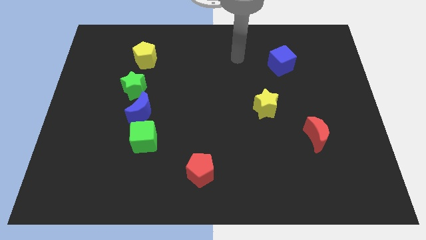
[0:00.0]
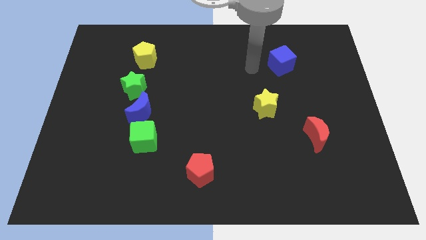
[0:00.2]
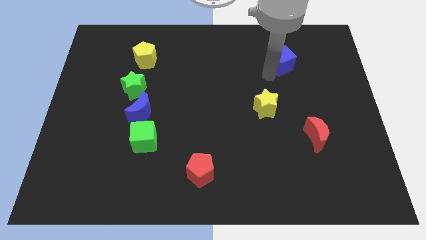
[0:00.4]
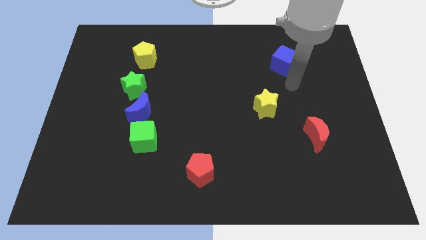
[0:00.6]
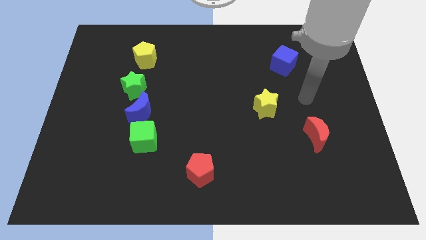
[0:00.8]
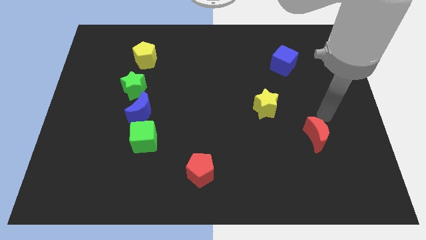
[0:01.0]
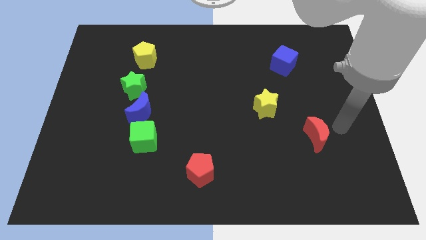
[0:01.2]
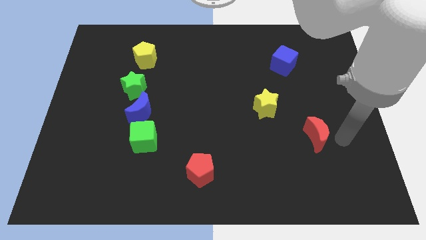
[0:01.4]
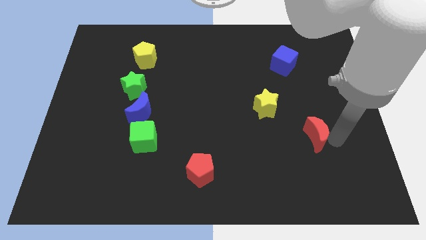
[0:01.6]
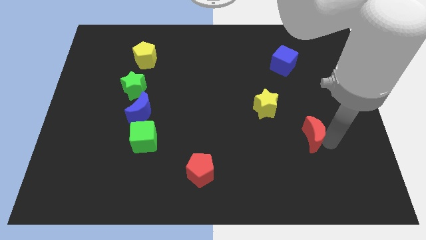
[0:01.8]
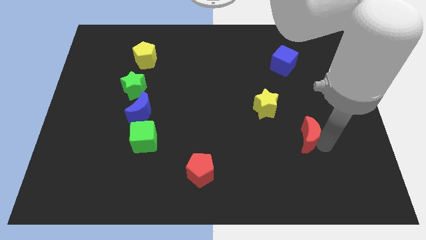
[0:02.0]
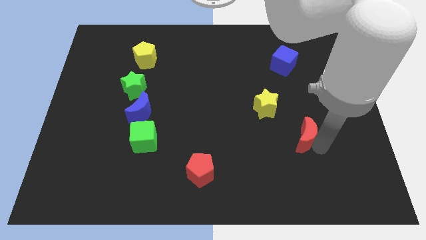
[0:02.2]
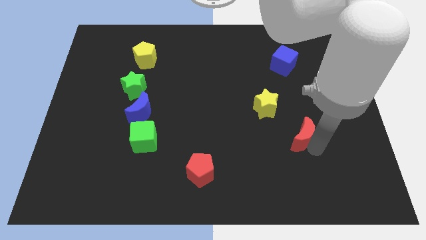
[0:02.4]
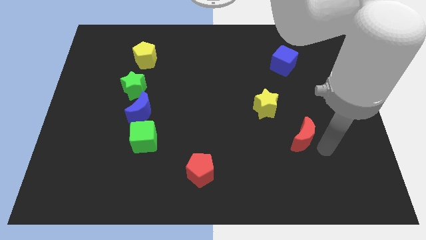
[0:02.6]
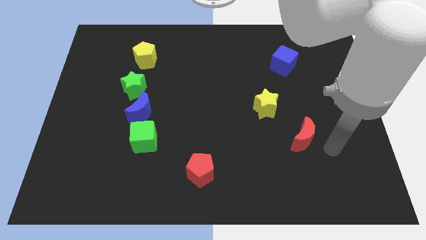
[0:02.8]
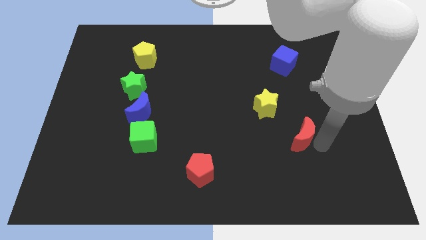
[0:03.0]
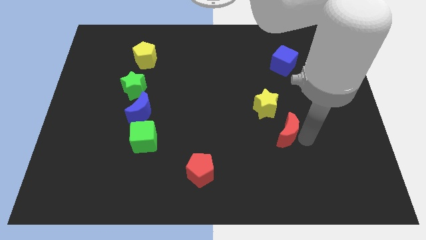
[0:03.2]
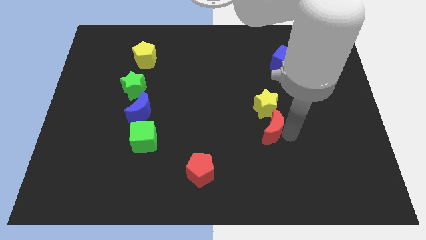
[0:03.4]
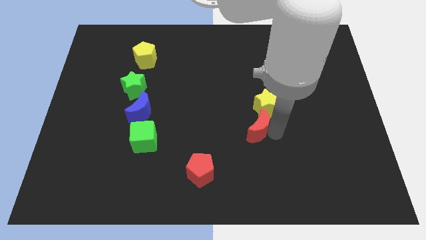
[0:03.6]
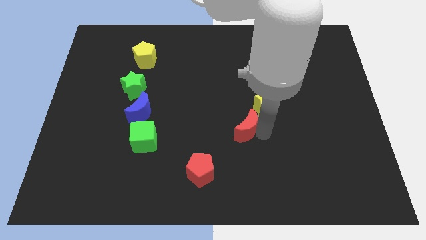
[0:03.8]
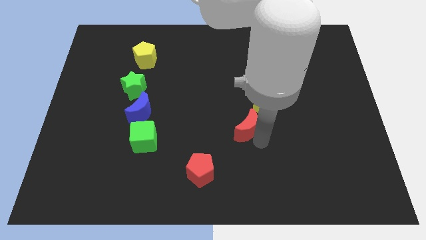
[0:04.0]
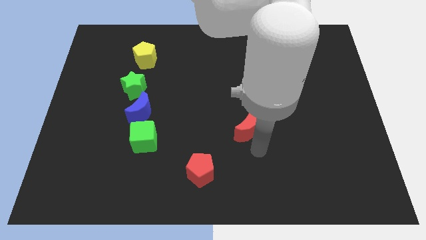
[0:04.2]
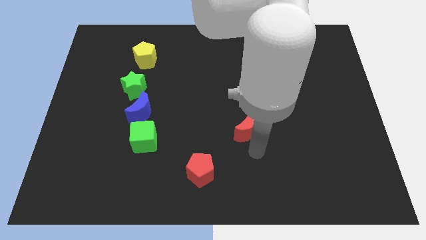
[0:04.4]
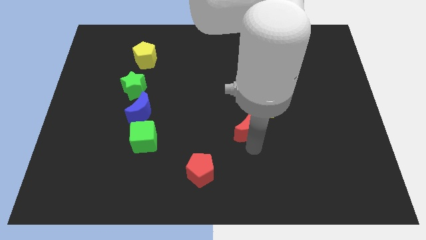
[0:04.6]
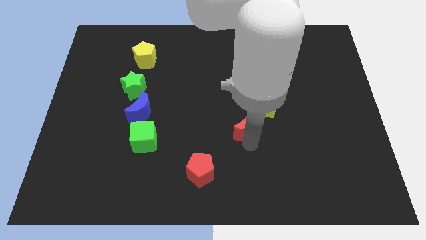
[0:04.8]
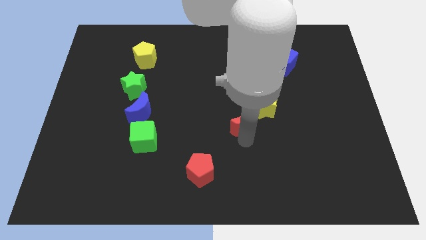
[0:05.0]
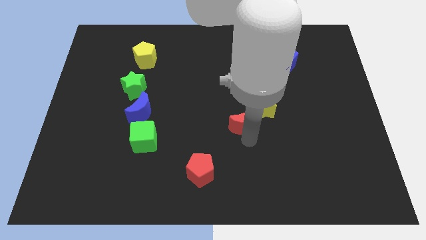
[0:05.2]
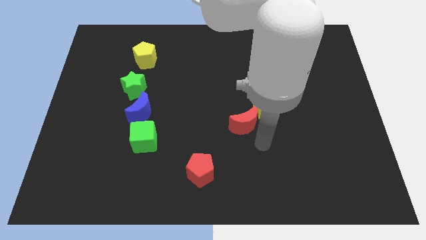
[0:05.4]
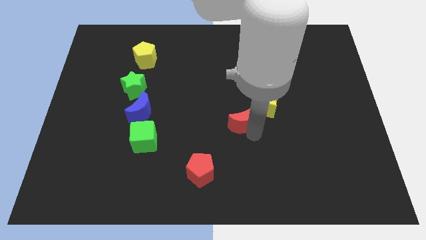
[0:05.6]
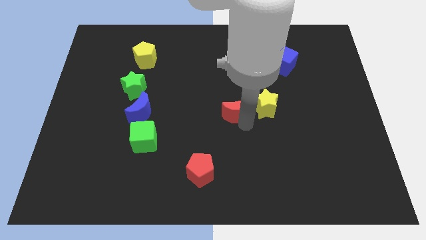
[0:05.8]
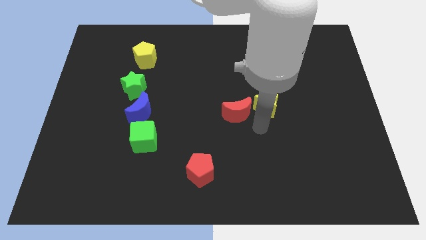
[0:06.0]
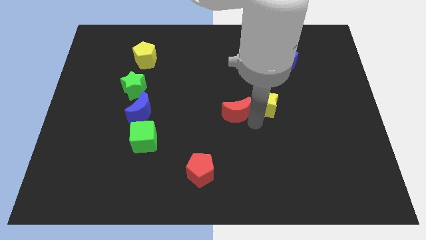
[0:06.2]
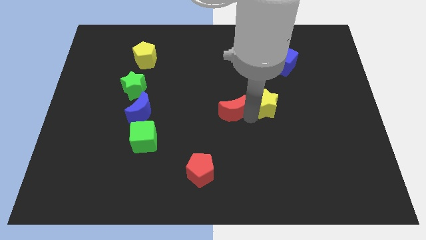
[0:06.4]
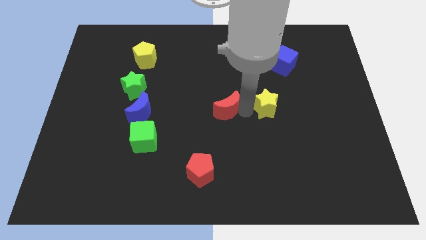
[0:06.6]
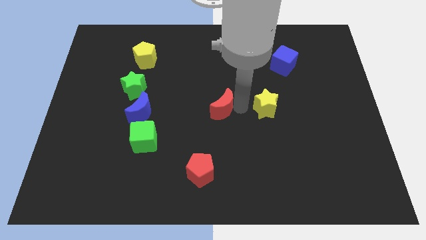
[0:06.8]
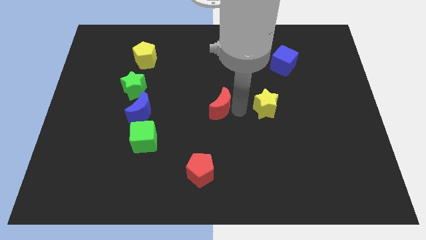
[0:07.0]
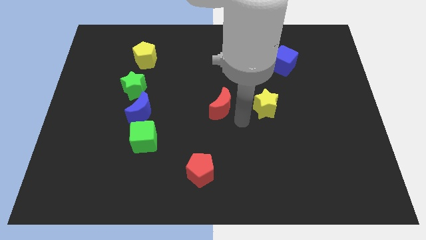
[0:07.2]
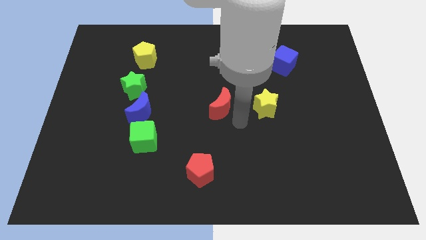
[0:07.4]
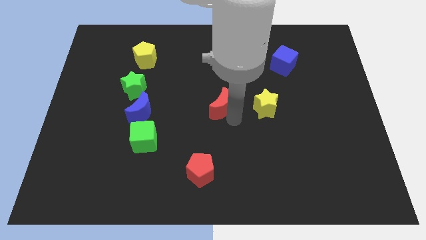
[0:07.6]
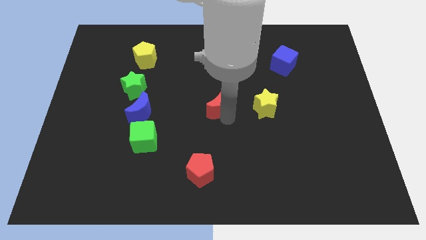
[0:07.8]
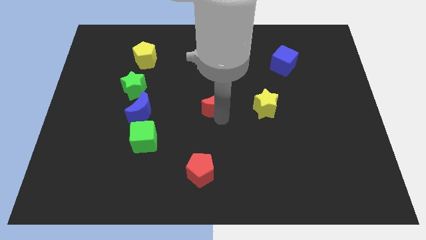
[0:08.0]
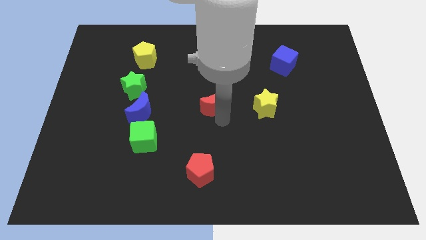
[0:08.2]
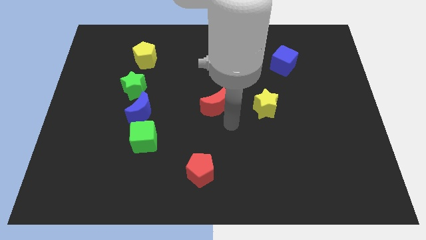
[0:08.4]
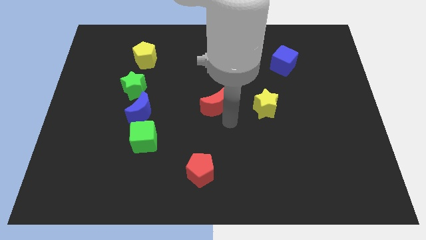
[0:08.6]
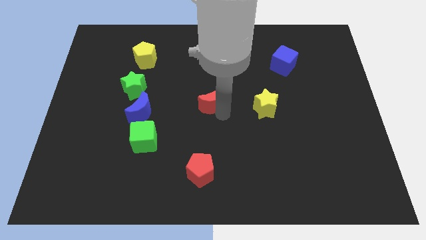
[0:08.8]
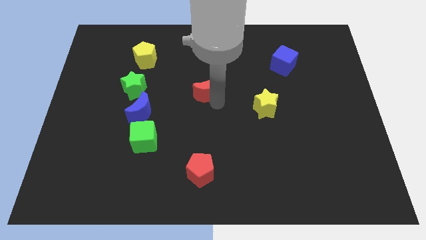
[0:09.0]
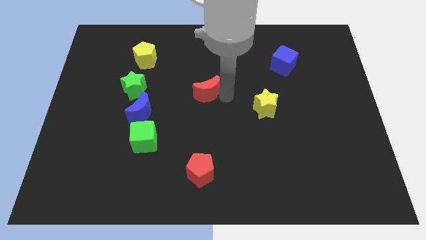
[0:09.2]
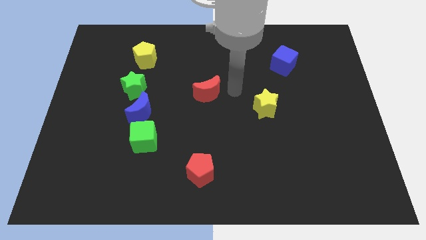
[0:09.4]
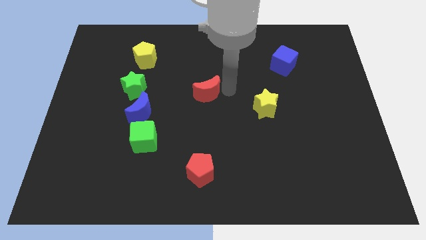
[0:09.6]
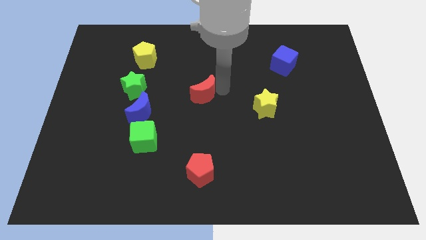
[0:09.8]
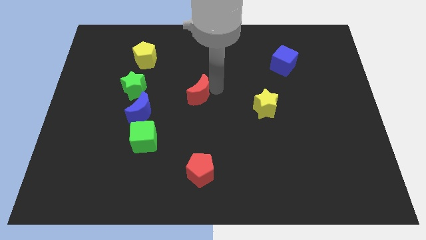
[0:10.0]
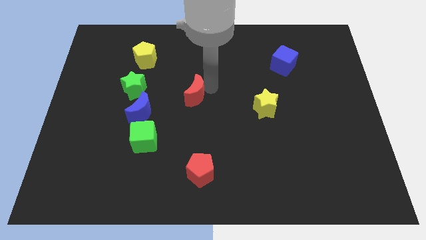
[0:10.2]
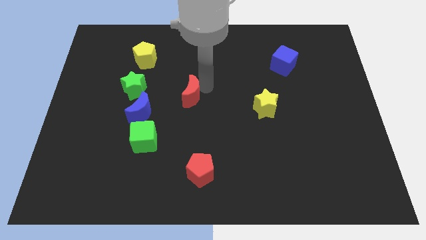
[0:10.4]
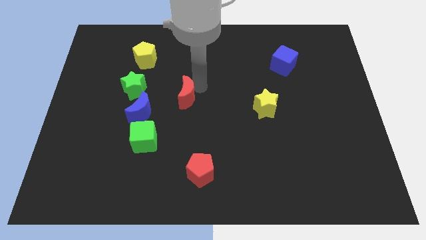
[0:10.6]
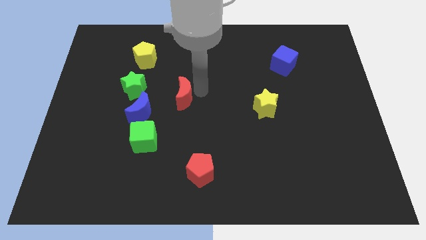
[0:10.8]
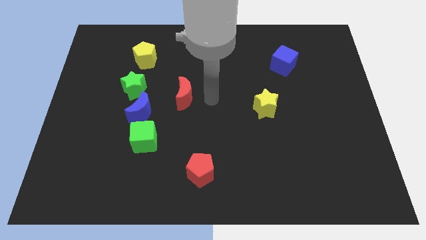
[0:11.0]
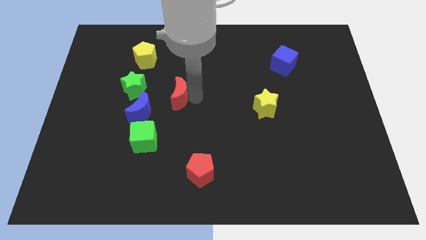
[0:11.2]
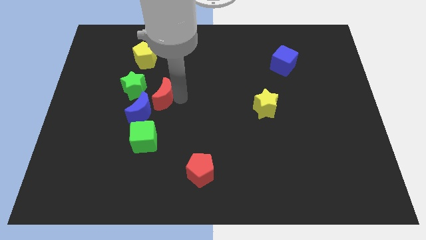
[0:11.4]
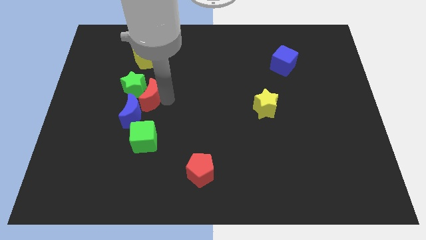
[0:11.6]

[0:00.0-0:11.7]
slide the red moon next to the green star

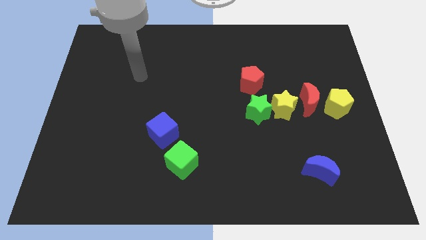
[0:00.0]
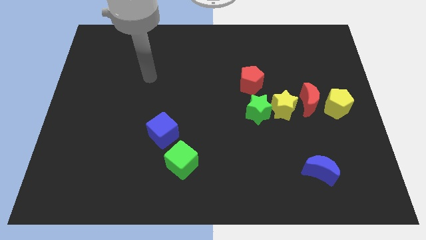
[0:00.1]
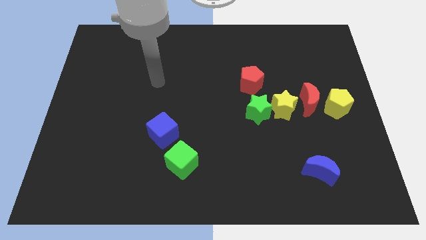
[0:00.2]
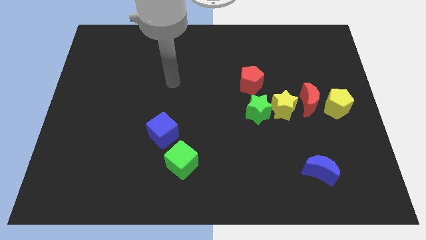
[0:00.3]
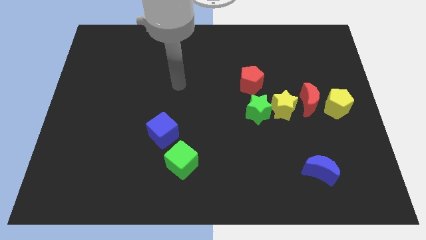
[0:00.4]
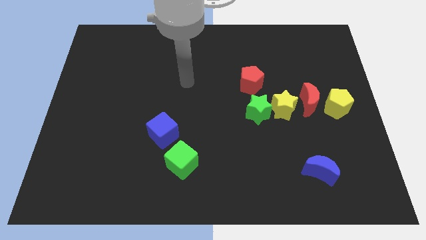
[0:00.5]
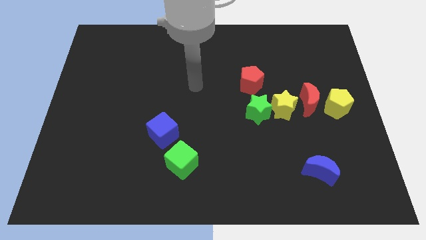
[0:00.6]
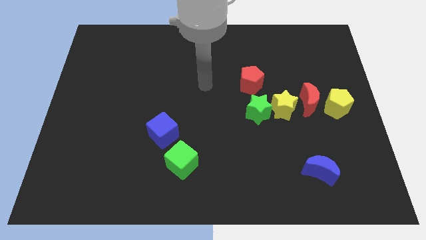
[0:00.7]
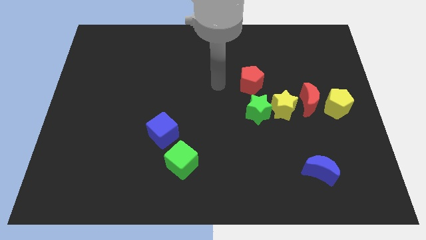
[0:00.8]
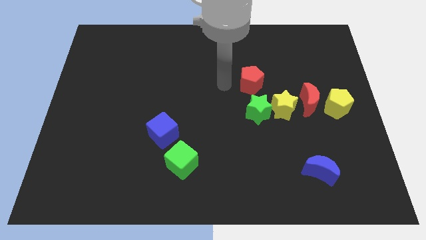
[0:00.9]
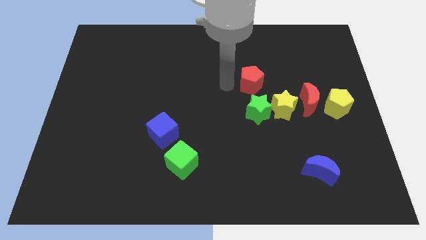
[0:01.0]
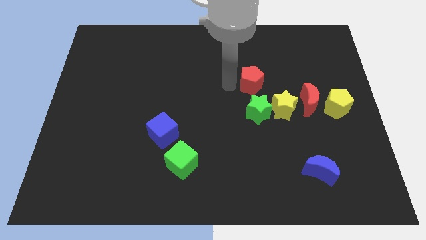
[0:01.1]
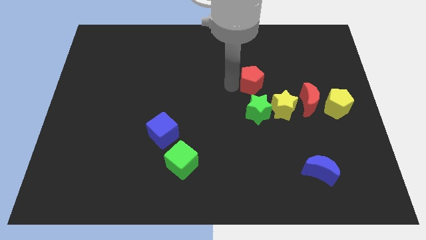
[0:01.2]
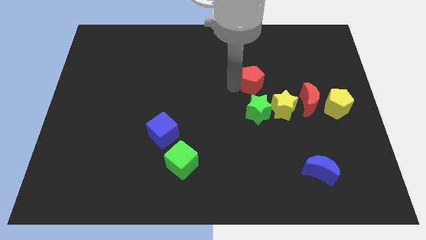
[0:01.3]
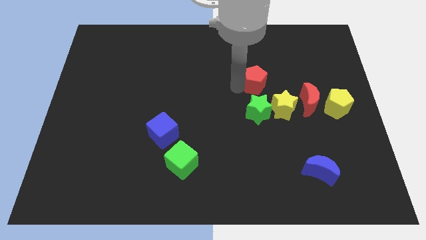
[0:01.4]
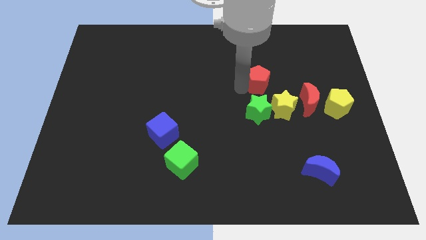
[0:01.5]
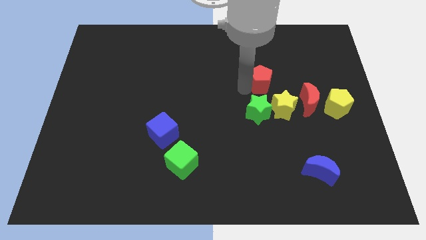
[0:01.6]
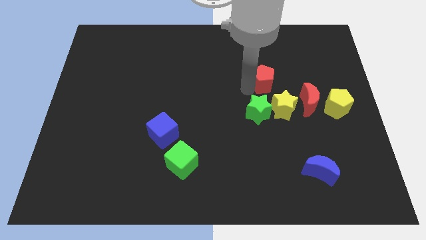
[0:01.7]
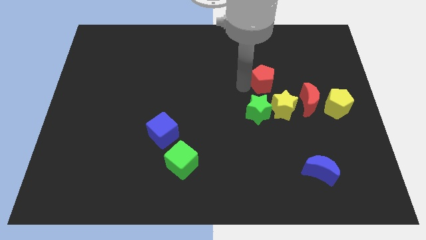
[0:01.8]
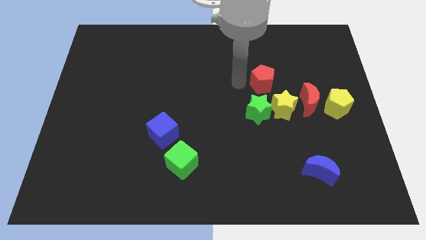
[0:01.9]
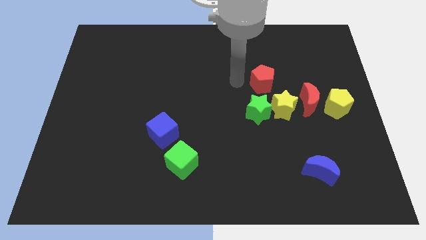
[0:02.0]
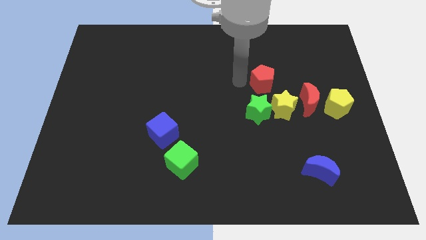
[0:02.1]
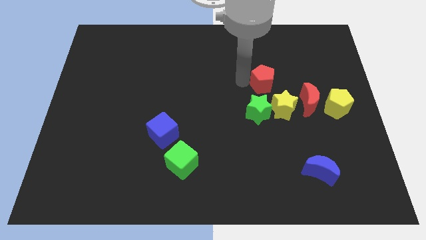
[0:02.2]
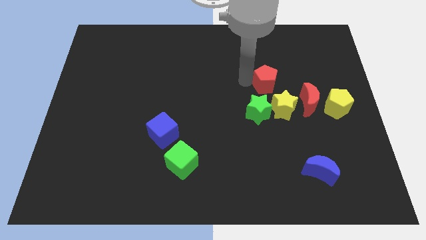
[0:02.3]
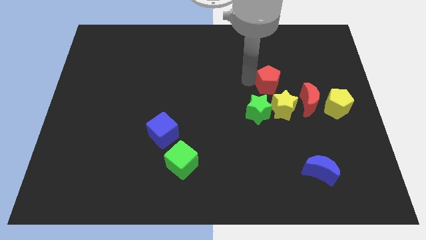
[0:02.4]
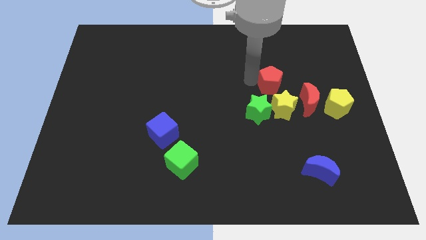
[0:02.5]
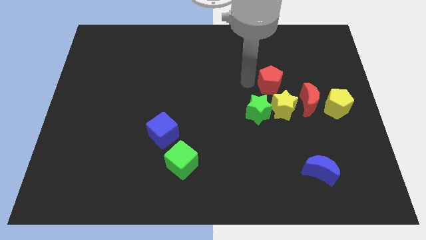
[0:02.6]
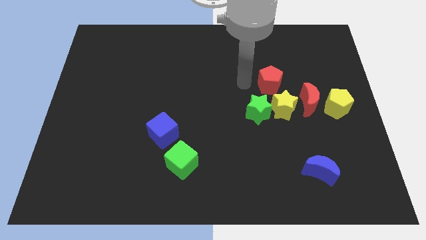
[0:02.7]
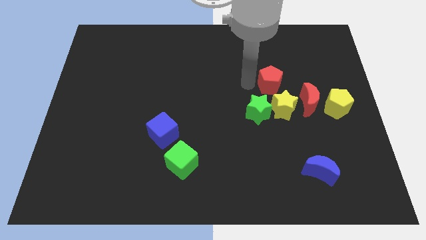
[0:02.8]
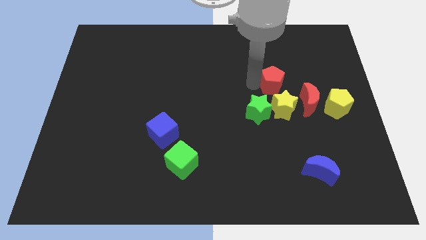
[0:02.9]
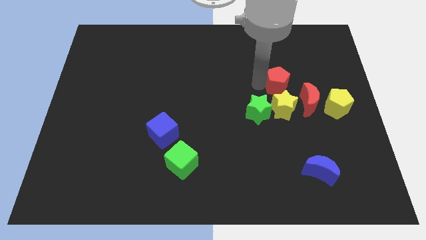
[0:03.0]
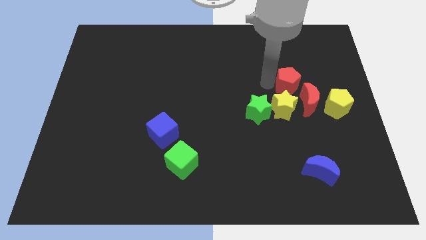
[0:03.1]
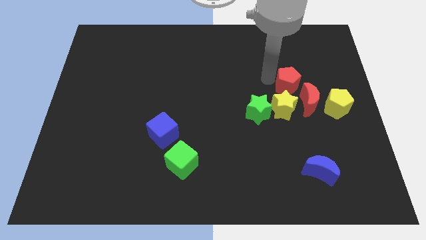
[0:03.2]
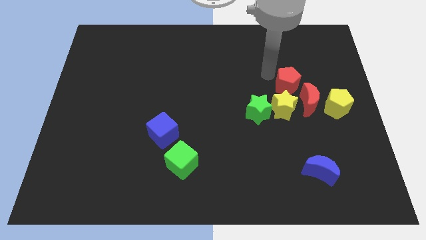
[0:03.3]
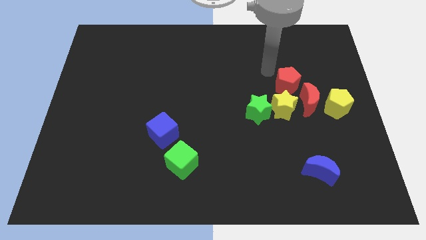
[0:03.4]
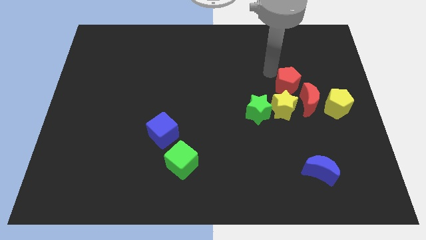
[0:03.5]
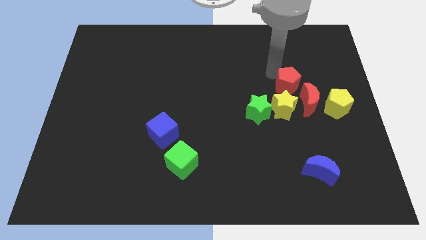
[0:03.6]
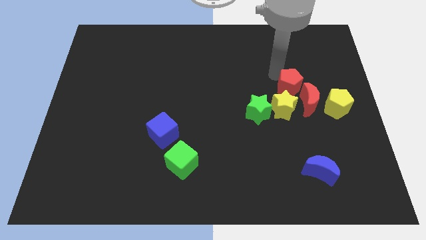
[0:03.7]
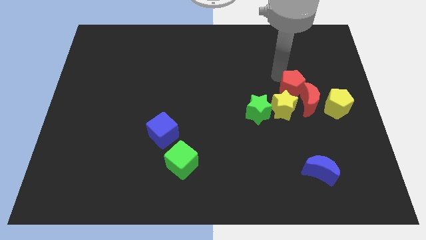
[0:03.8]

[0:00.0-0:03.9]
slide the red pentagon towards the red moon
